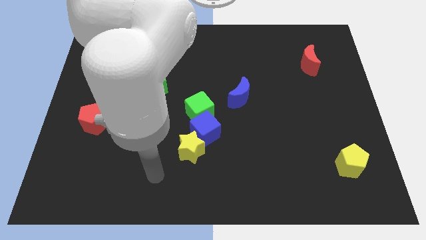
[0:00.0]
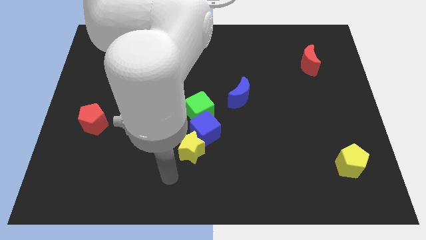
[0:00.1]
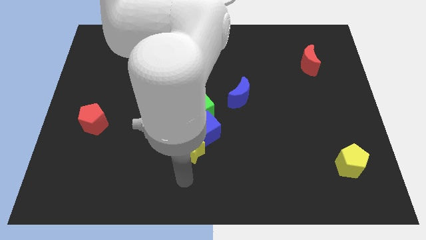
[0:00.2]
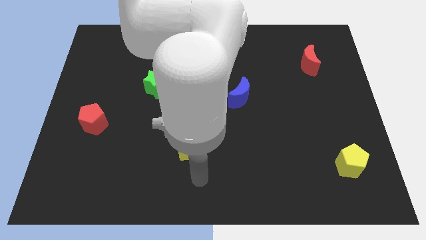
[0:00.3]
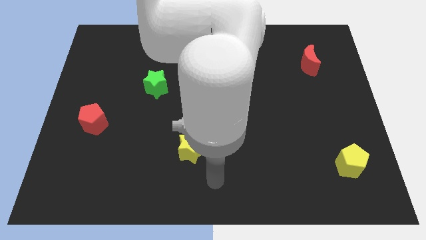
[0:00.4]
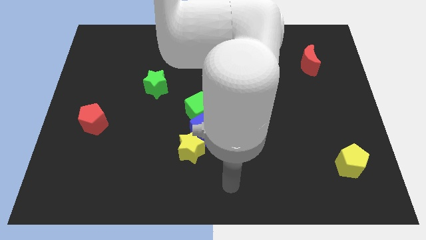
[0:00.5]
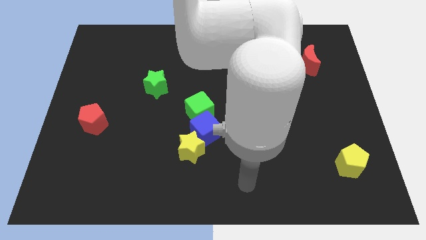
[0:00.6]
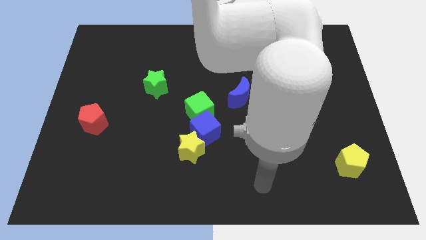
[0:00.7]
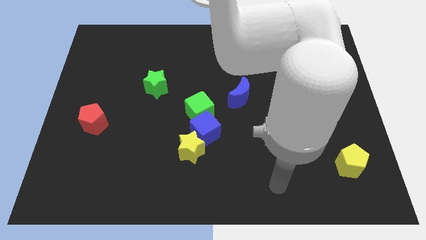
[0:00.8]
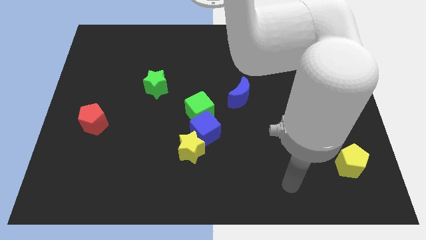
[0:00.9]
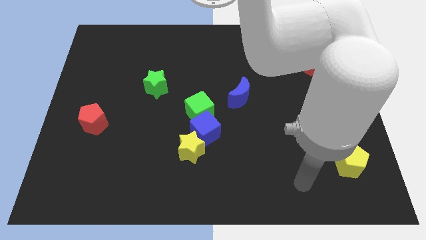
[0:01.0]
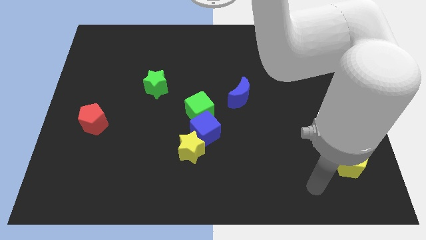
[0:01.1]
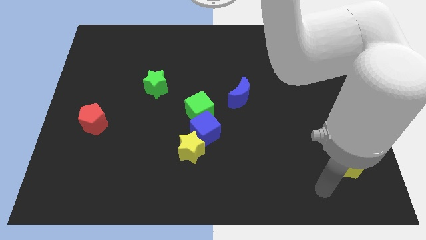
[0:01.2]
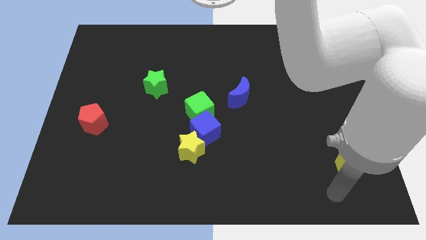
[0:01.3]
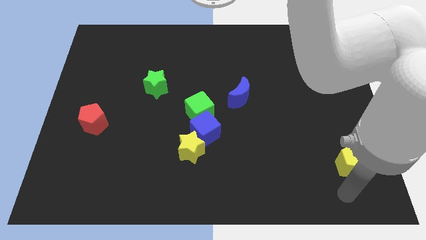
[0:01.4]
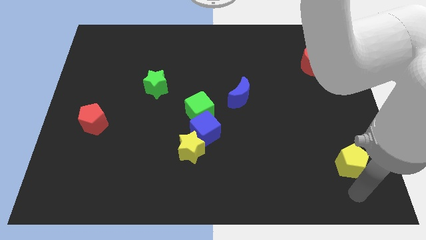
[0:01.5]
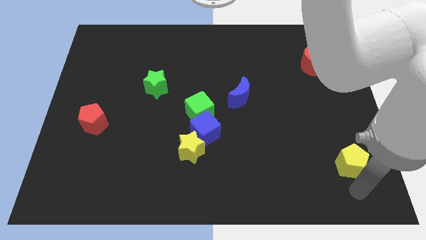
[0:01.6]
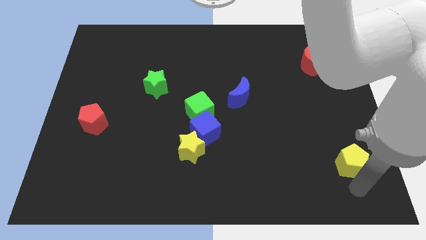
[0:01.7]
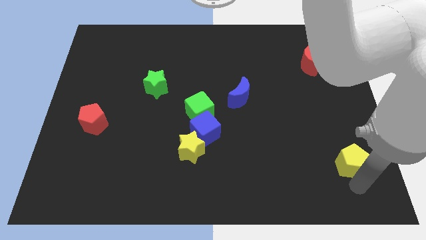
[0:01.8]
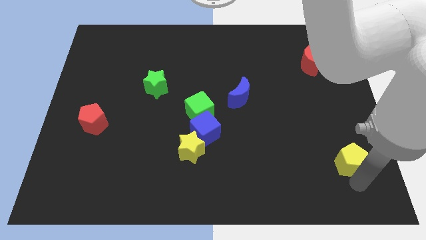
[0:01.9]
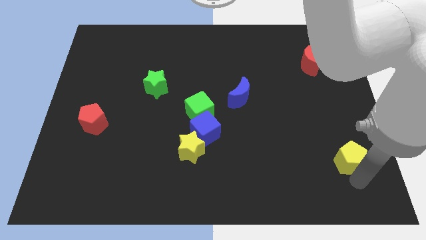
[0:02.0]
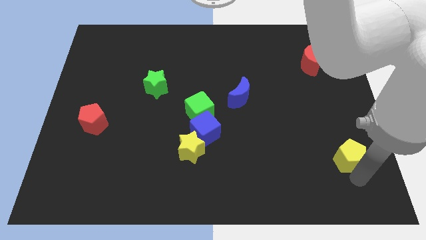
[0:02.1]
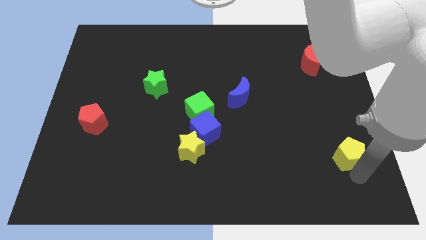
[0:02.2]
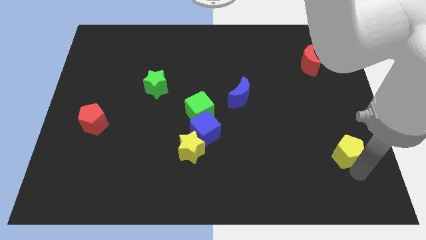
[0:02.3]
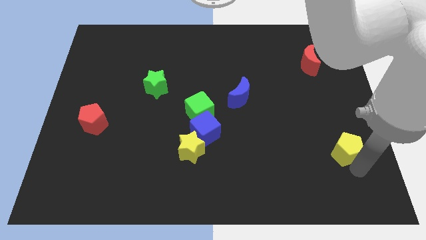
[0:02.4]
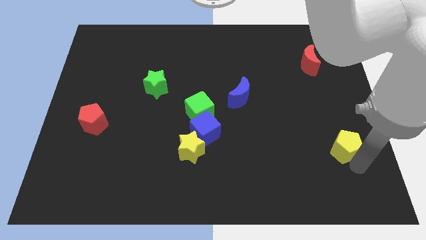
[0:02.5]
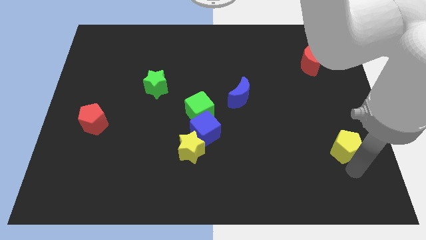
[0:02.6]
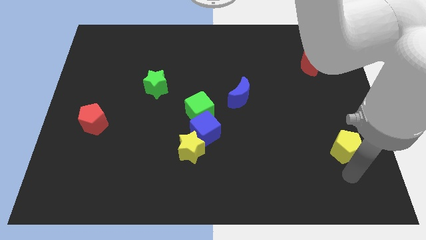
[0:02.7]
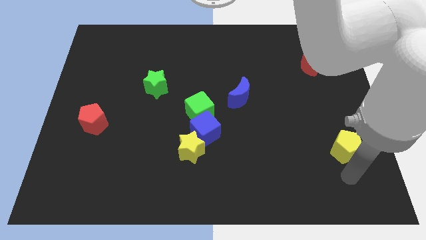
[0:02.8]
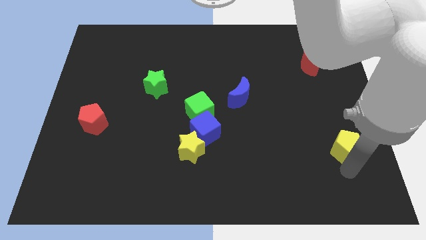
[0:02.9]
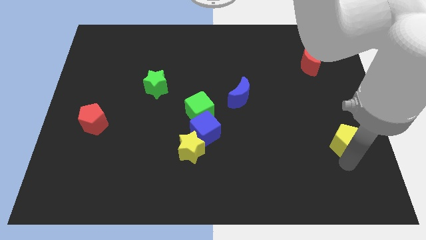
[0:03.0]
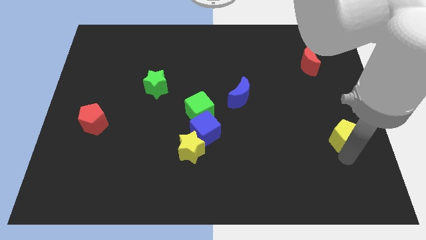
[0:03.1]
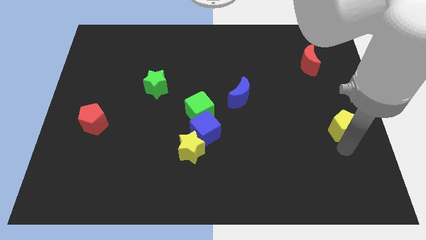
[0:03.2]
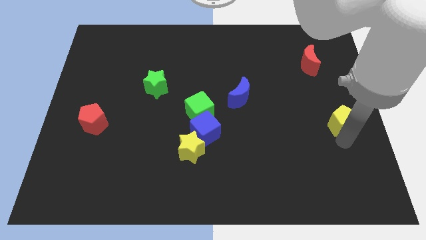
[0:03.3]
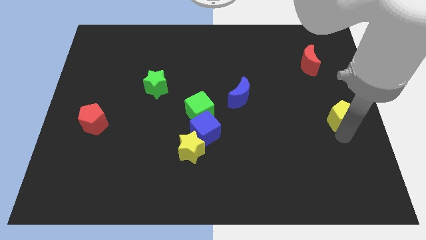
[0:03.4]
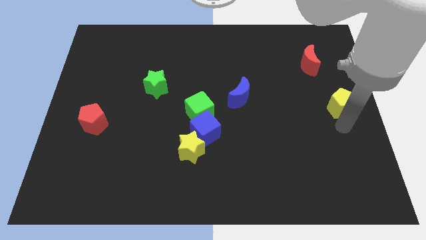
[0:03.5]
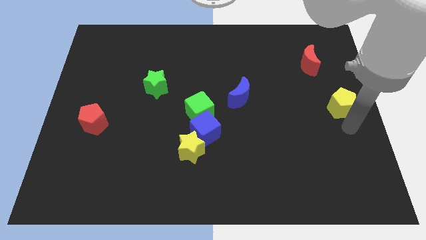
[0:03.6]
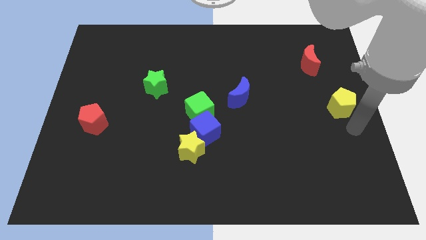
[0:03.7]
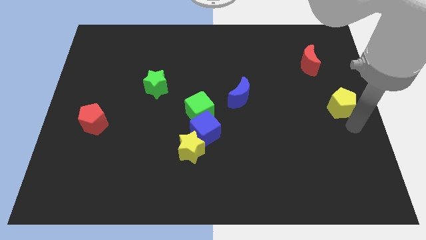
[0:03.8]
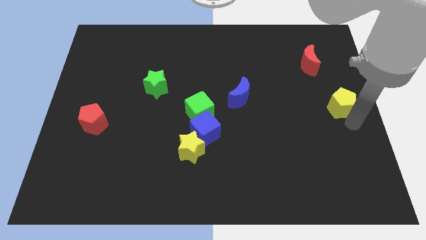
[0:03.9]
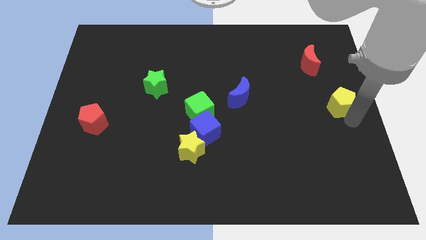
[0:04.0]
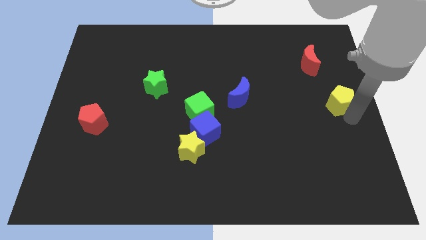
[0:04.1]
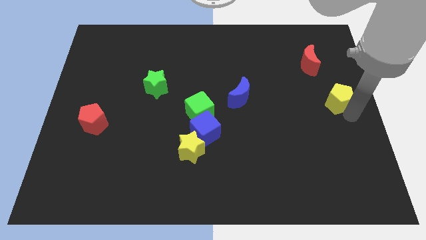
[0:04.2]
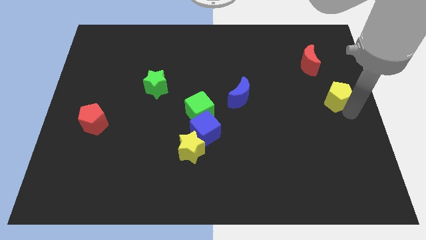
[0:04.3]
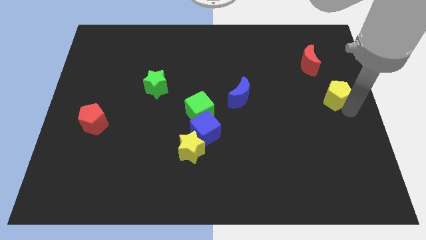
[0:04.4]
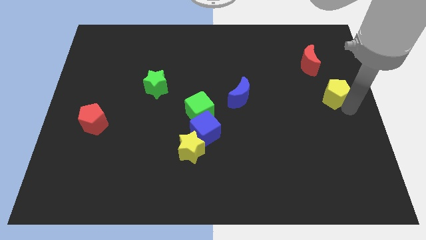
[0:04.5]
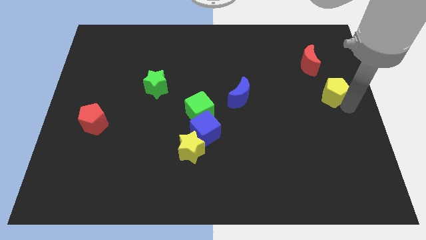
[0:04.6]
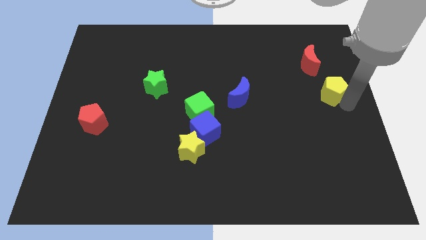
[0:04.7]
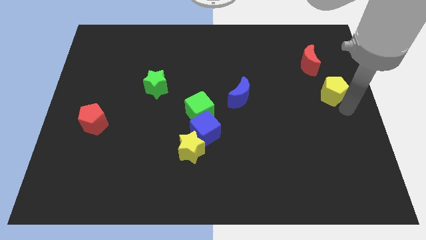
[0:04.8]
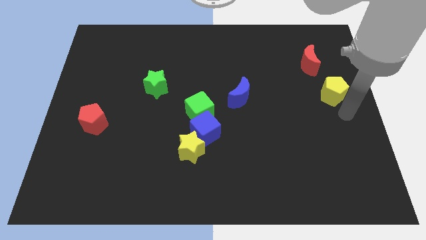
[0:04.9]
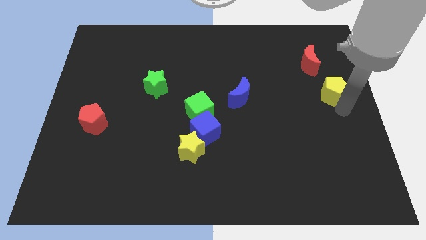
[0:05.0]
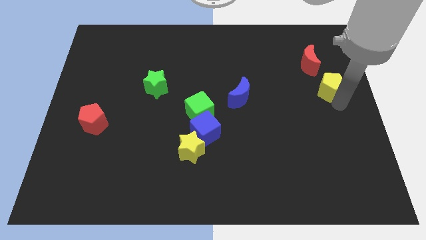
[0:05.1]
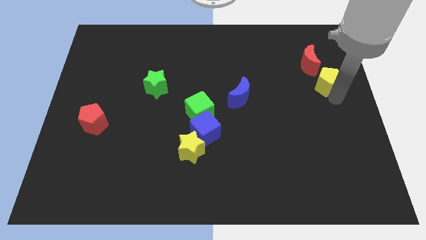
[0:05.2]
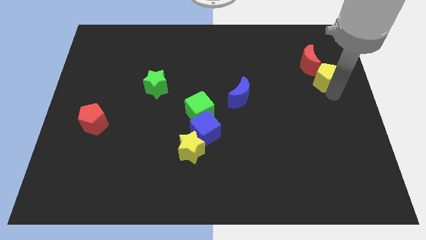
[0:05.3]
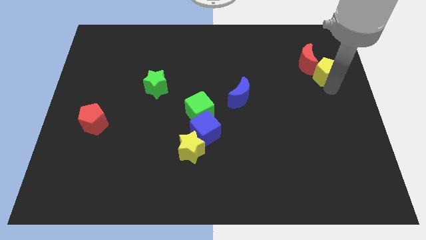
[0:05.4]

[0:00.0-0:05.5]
put the yellow pentagon towards the red moon

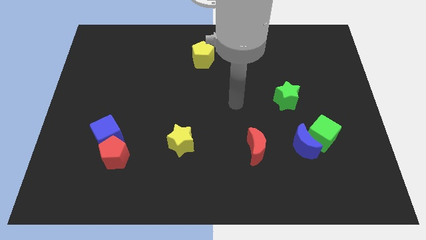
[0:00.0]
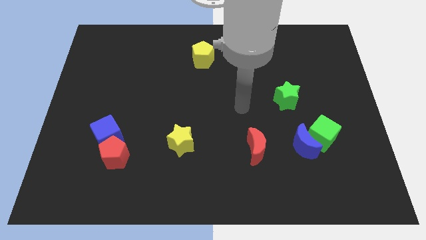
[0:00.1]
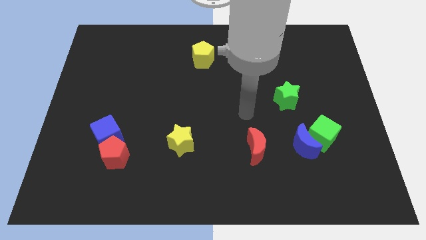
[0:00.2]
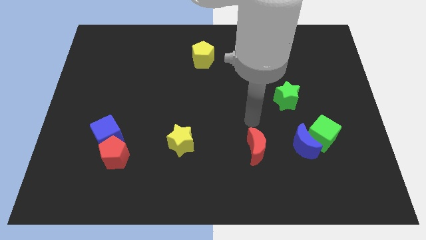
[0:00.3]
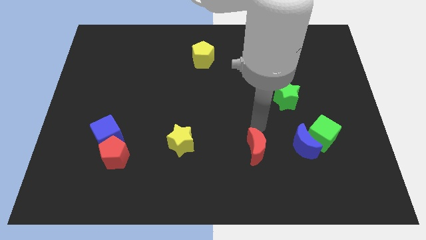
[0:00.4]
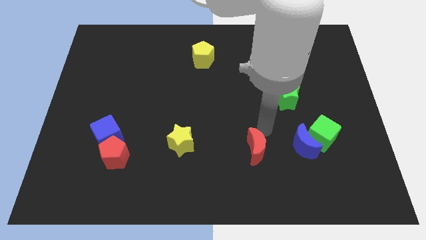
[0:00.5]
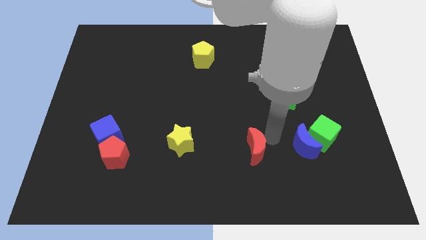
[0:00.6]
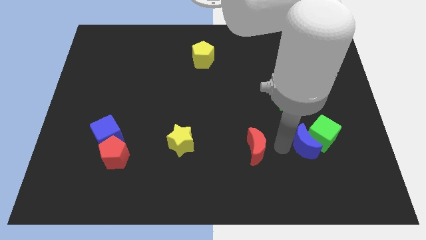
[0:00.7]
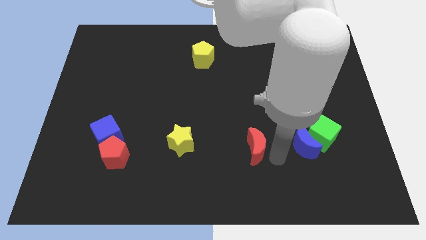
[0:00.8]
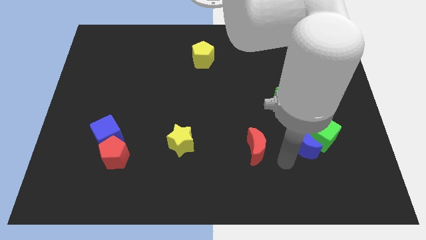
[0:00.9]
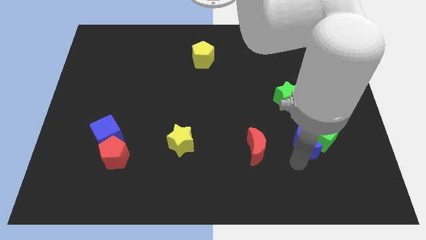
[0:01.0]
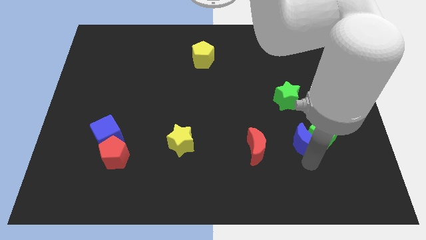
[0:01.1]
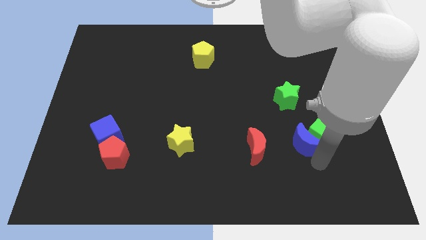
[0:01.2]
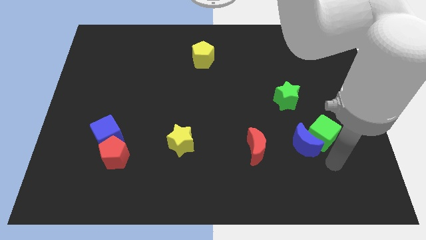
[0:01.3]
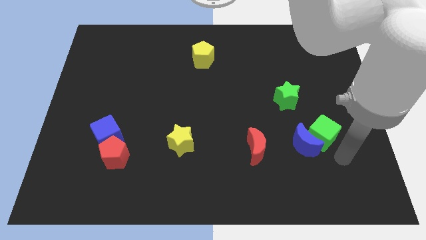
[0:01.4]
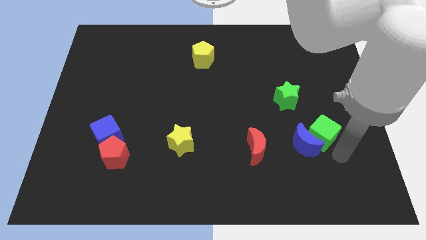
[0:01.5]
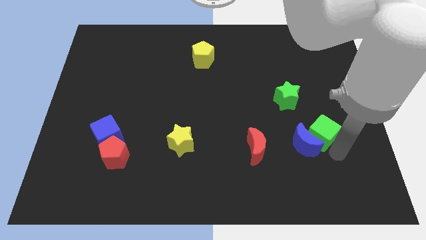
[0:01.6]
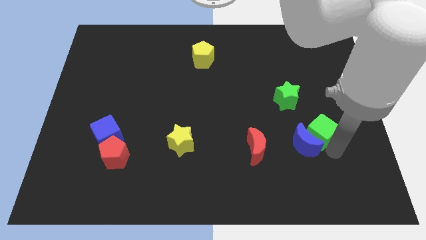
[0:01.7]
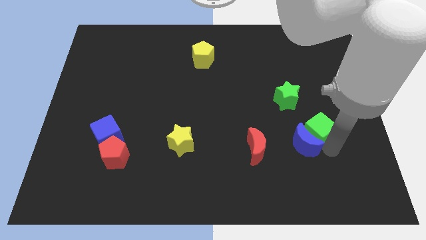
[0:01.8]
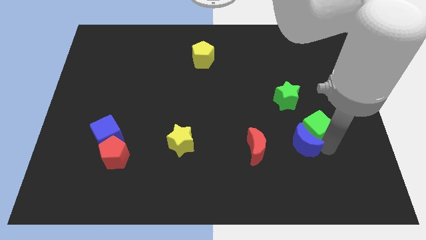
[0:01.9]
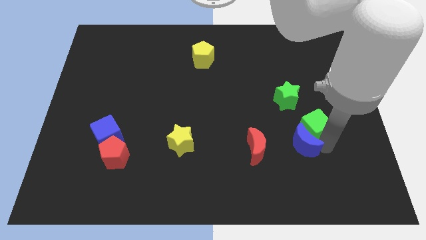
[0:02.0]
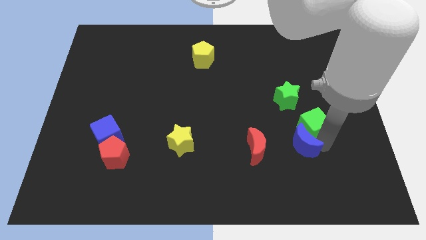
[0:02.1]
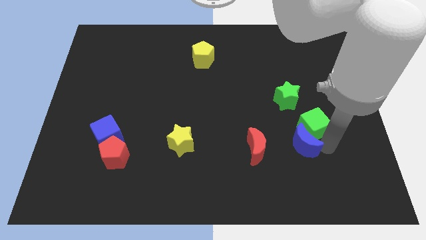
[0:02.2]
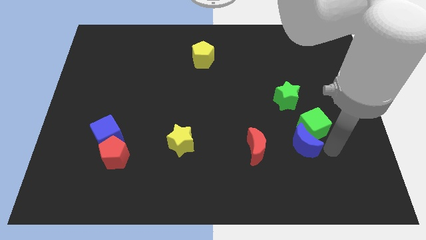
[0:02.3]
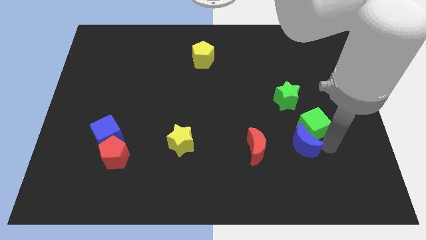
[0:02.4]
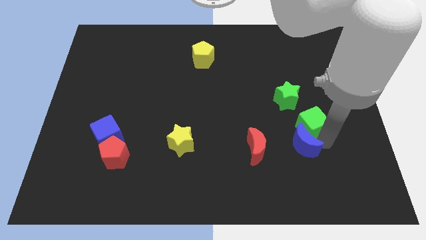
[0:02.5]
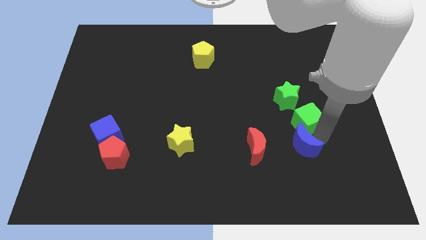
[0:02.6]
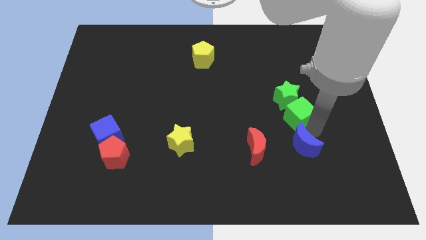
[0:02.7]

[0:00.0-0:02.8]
push the green cube to the green star
